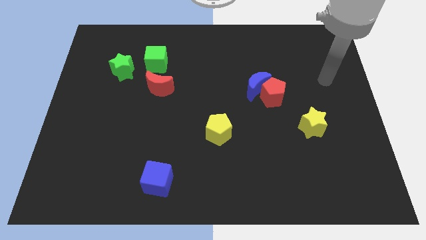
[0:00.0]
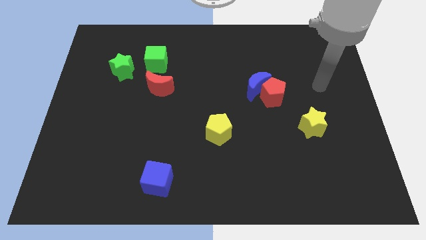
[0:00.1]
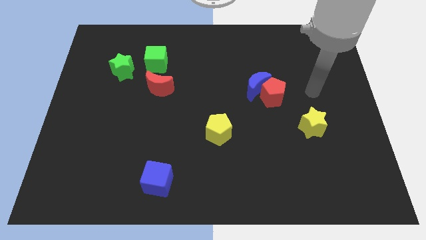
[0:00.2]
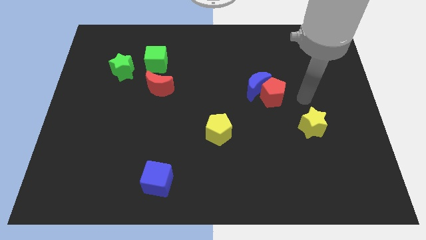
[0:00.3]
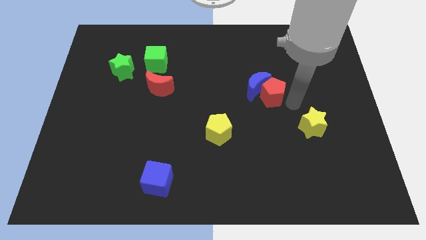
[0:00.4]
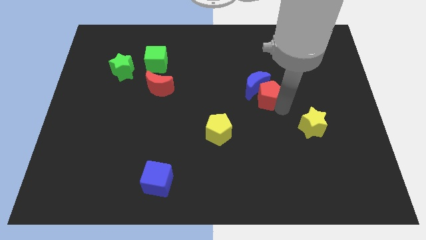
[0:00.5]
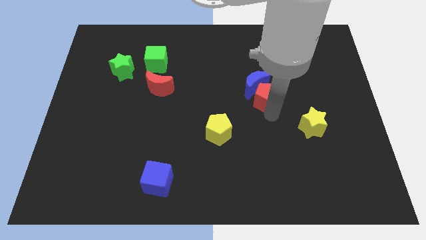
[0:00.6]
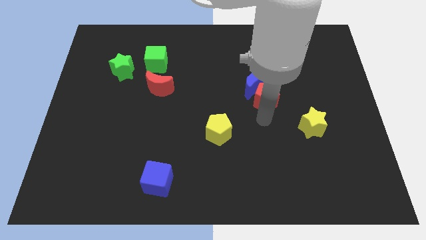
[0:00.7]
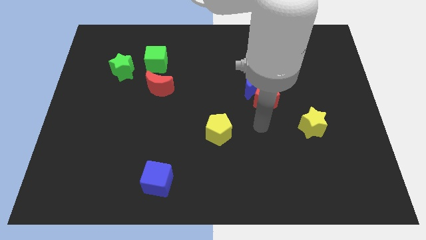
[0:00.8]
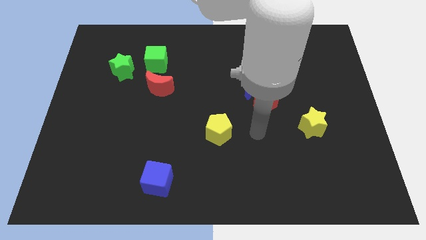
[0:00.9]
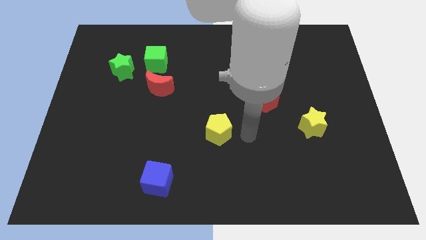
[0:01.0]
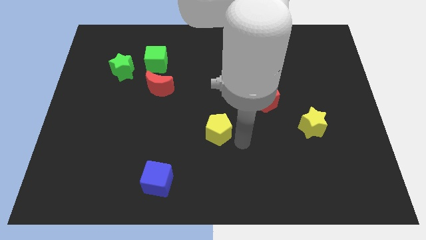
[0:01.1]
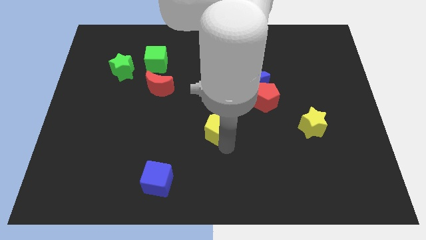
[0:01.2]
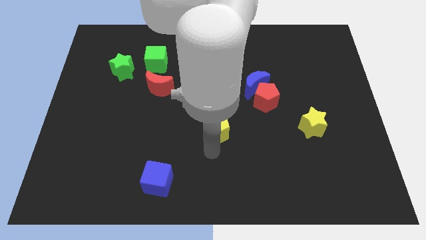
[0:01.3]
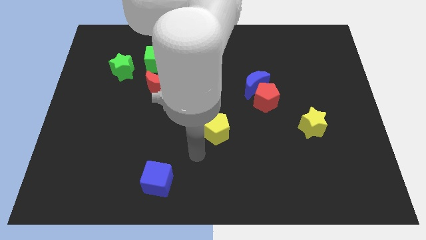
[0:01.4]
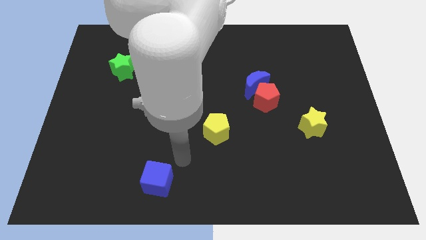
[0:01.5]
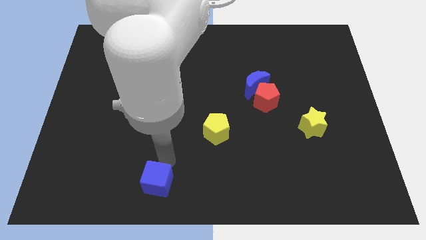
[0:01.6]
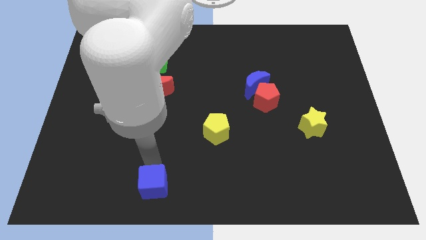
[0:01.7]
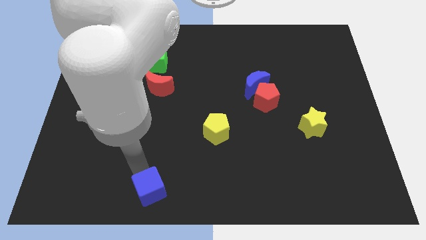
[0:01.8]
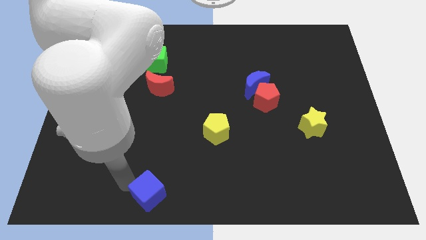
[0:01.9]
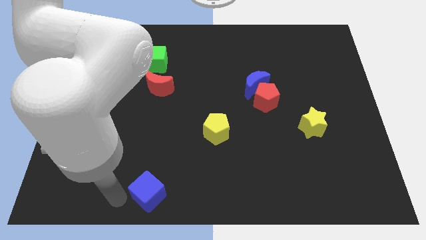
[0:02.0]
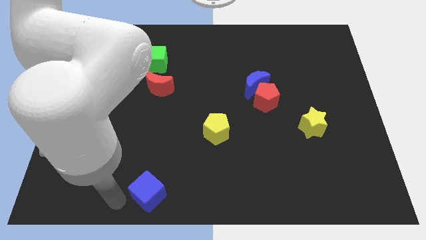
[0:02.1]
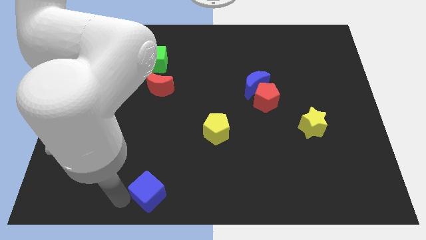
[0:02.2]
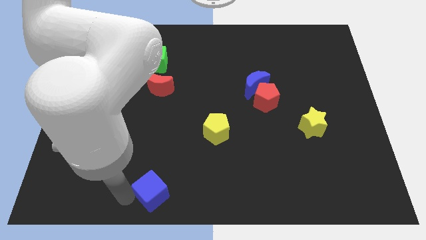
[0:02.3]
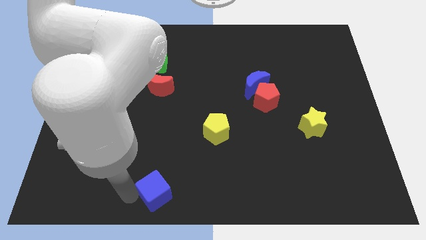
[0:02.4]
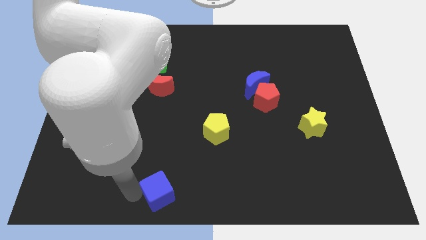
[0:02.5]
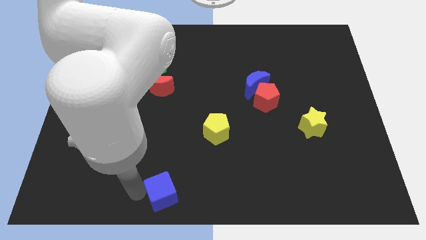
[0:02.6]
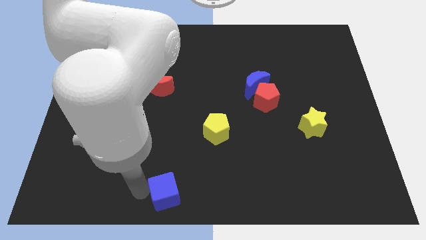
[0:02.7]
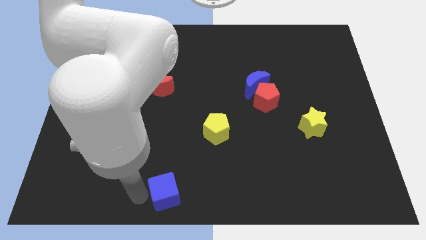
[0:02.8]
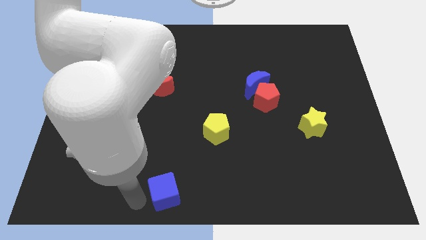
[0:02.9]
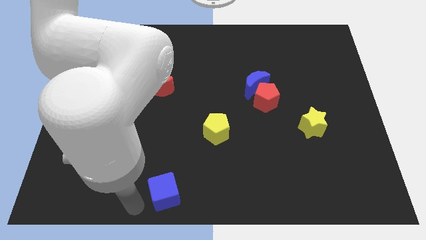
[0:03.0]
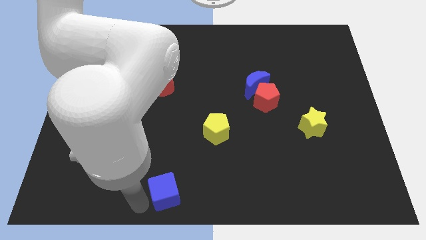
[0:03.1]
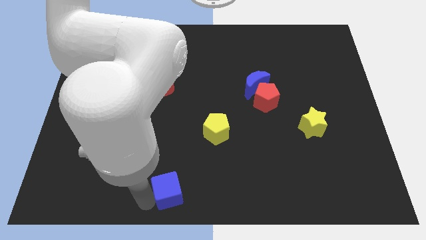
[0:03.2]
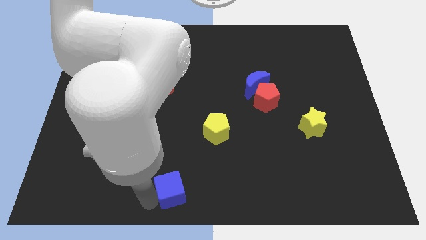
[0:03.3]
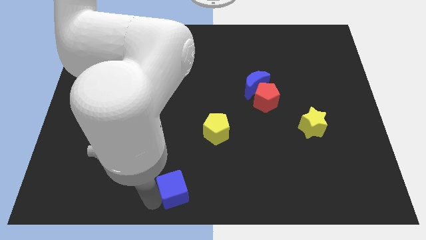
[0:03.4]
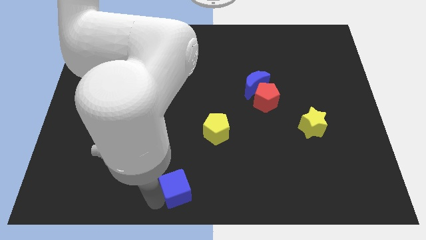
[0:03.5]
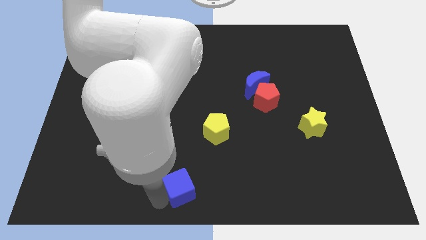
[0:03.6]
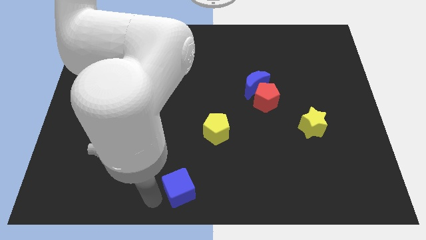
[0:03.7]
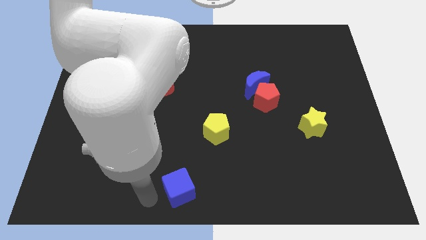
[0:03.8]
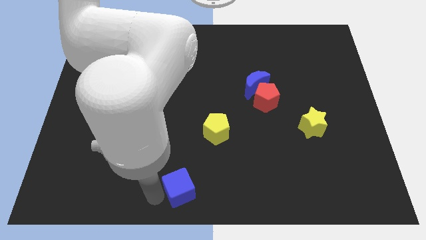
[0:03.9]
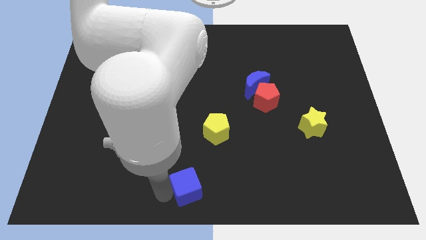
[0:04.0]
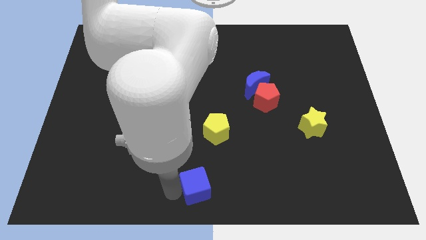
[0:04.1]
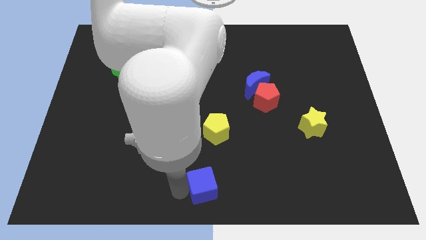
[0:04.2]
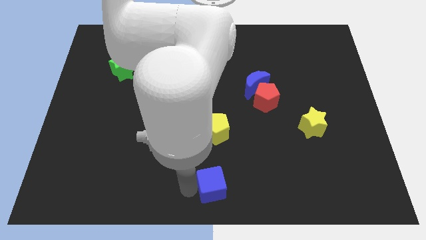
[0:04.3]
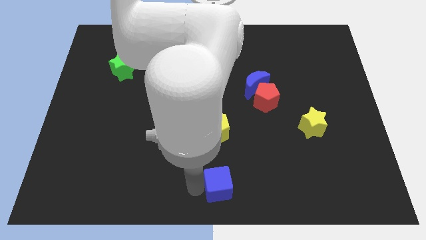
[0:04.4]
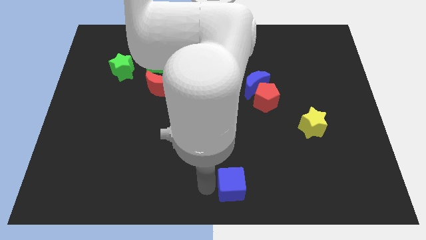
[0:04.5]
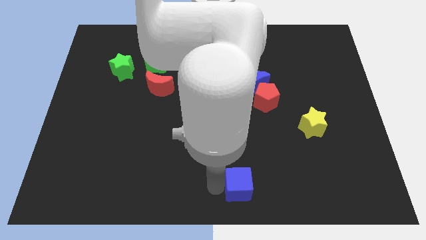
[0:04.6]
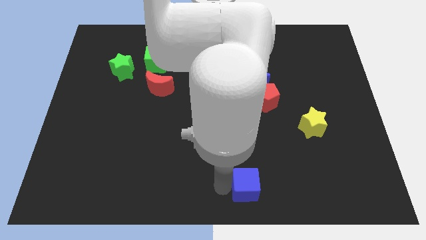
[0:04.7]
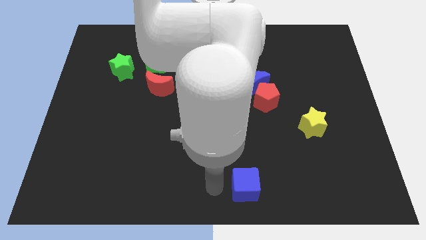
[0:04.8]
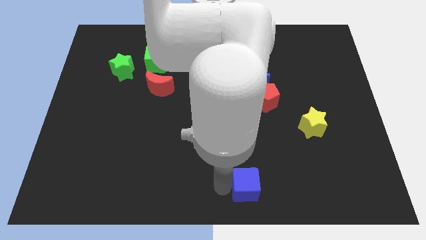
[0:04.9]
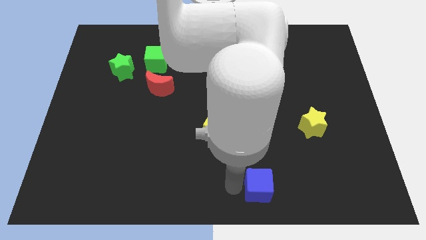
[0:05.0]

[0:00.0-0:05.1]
slide the blue cube to the right

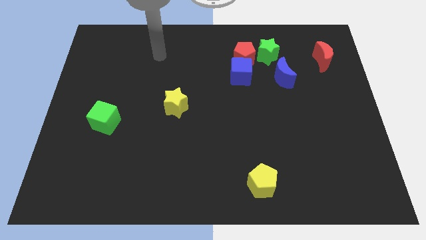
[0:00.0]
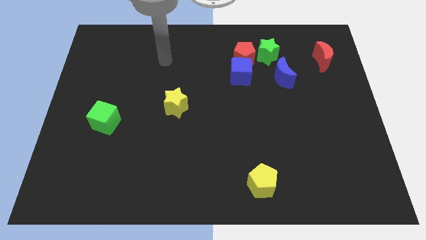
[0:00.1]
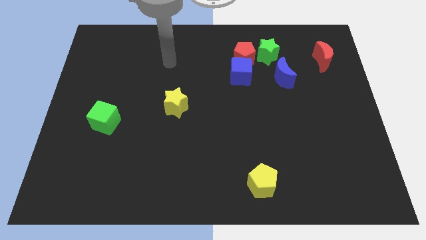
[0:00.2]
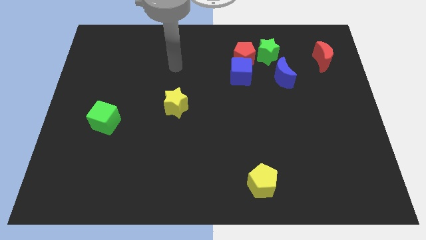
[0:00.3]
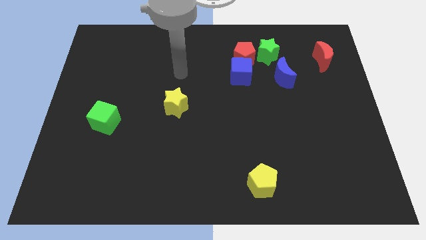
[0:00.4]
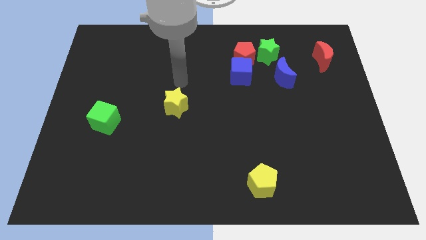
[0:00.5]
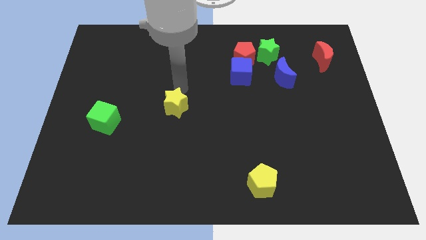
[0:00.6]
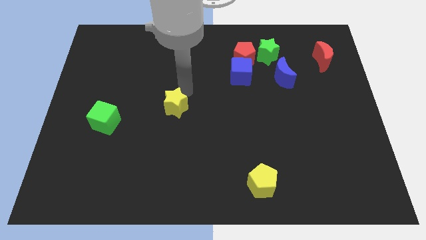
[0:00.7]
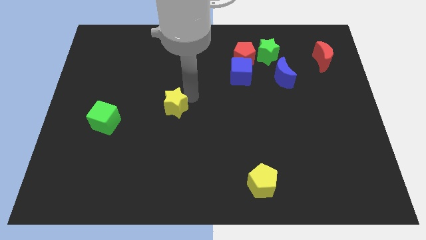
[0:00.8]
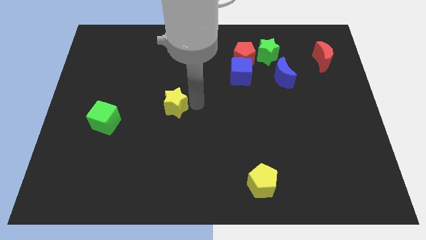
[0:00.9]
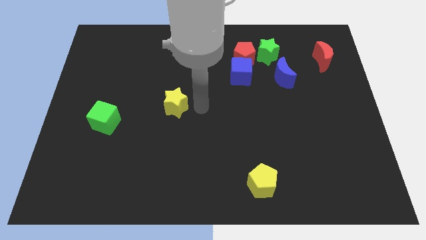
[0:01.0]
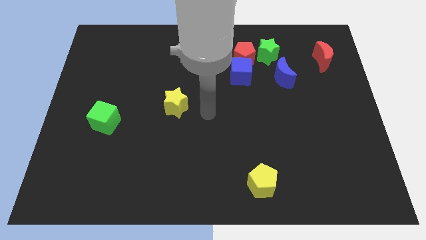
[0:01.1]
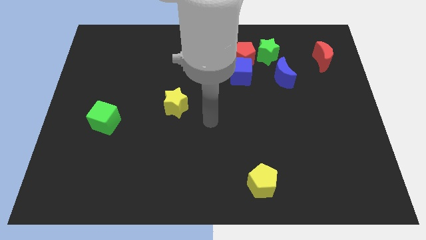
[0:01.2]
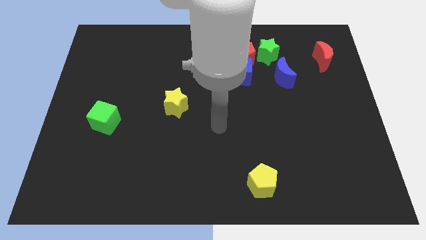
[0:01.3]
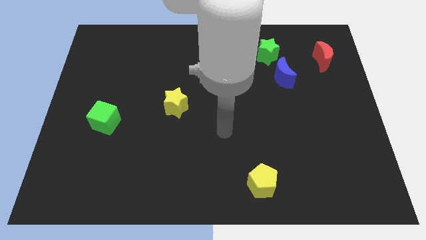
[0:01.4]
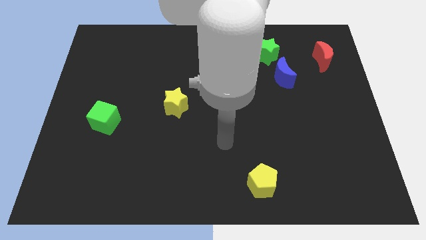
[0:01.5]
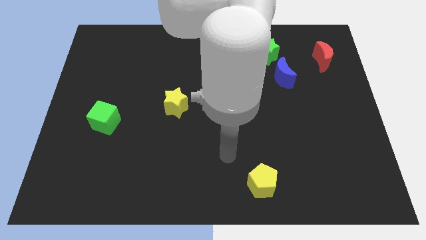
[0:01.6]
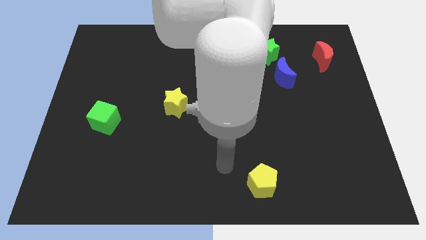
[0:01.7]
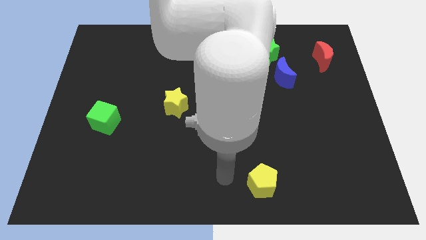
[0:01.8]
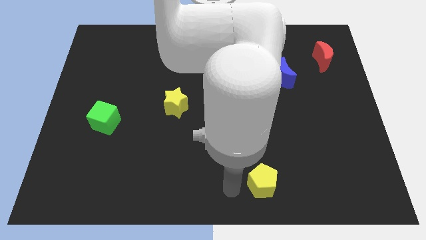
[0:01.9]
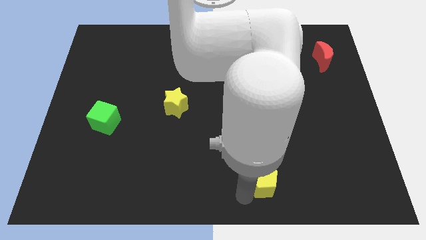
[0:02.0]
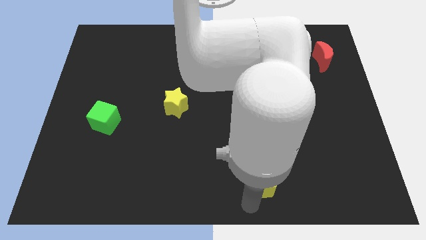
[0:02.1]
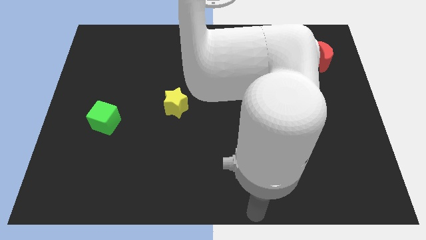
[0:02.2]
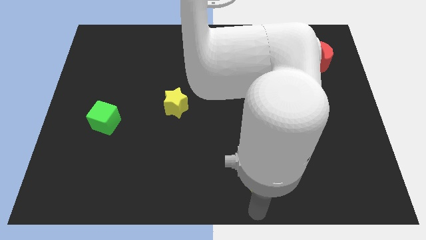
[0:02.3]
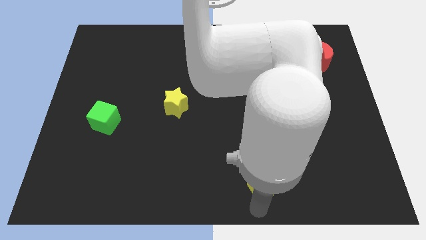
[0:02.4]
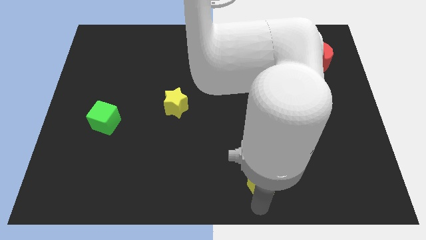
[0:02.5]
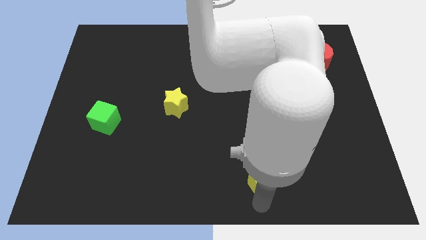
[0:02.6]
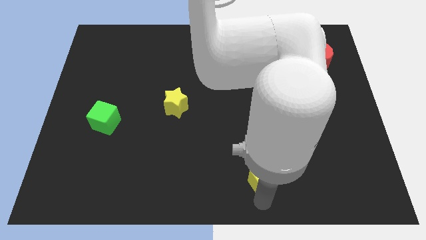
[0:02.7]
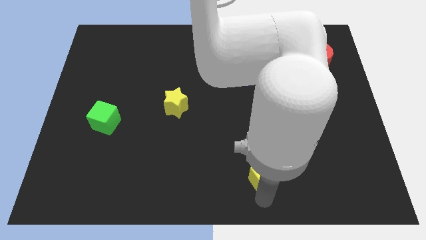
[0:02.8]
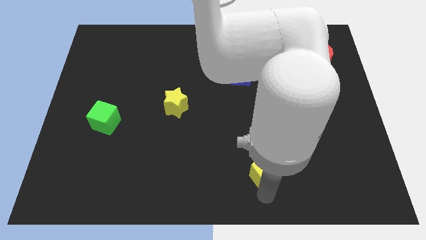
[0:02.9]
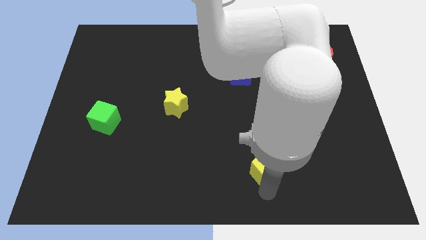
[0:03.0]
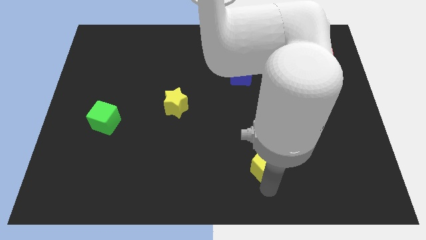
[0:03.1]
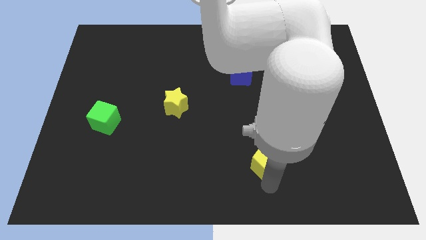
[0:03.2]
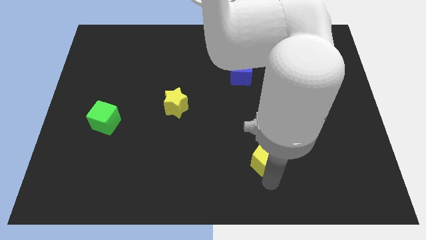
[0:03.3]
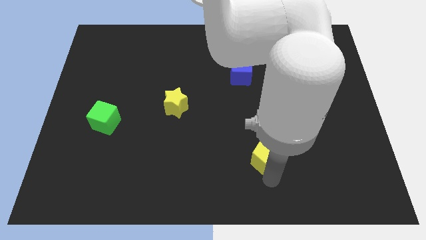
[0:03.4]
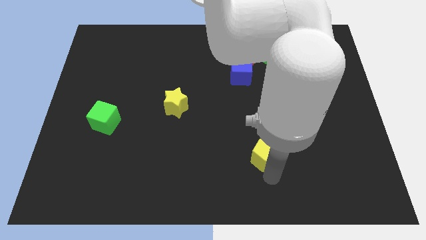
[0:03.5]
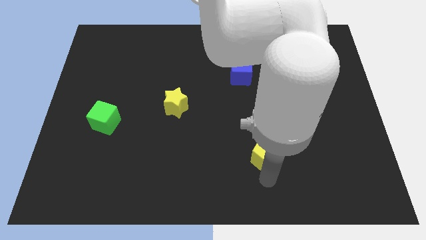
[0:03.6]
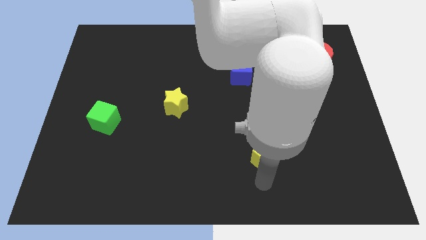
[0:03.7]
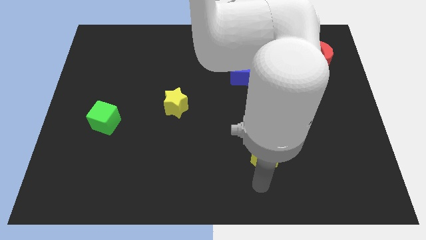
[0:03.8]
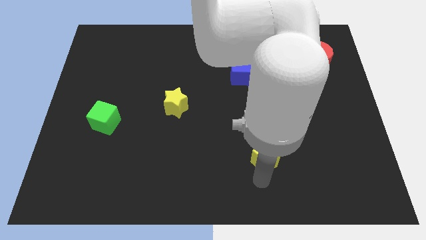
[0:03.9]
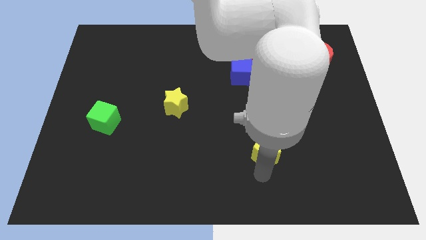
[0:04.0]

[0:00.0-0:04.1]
slide the yellow pentagon a little upwards
